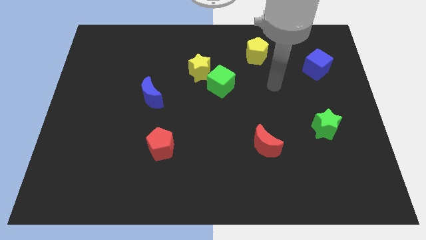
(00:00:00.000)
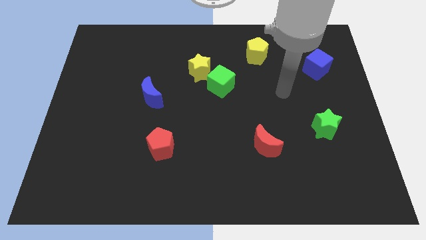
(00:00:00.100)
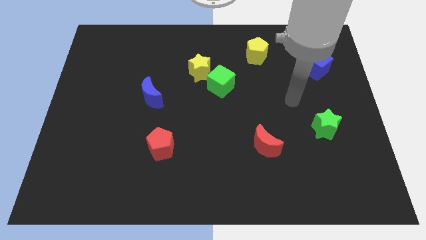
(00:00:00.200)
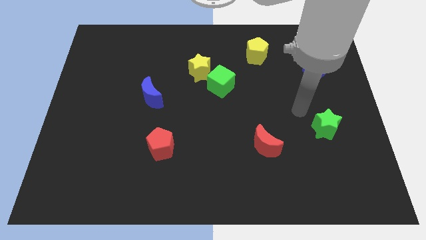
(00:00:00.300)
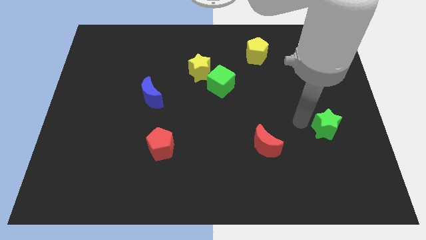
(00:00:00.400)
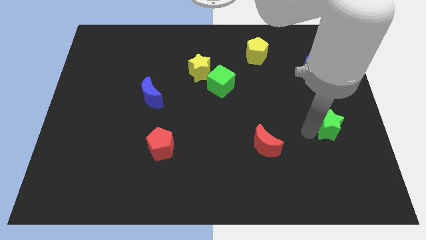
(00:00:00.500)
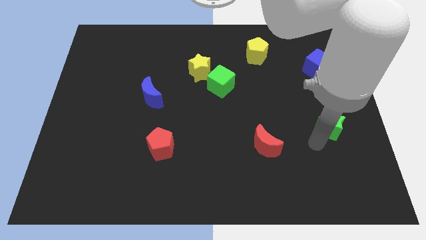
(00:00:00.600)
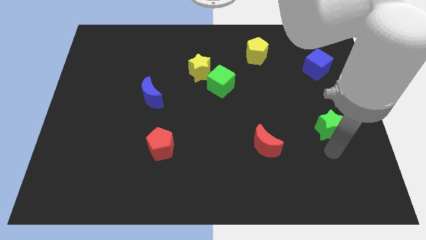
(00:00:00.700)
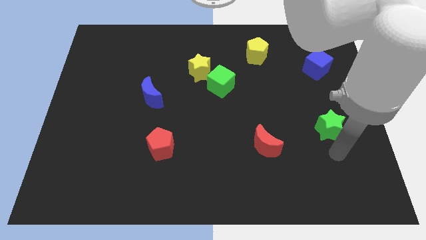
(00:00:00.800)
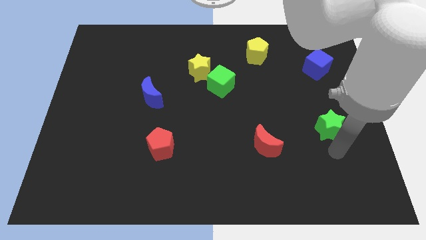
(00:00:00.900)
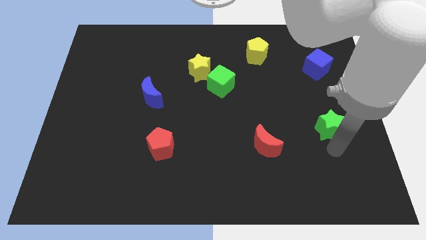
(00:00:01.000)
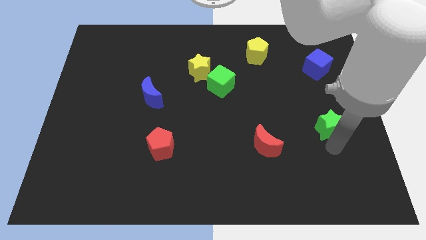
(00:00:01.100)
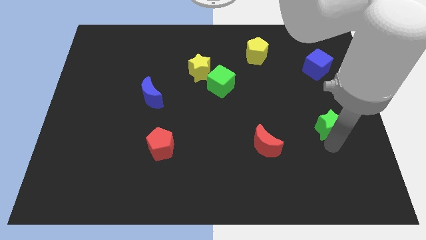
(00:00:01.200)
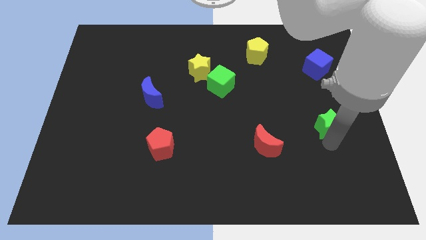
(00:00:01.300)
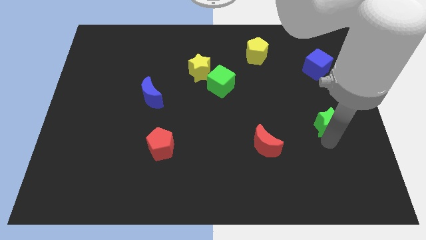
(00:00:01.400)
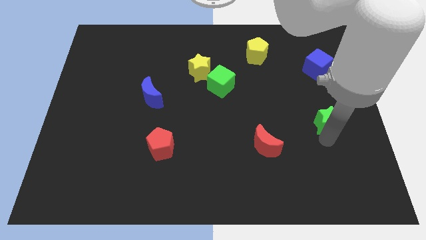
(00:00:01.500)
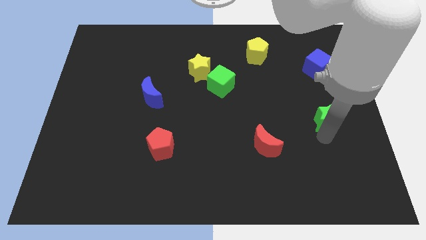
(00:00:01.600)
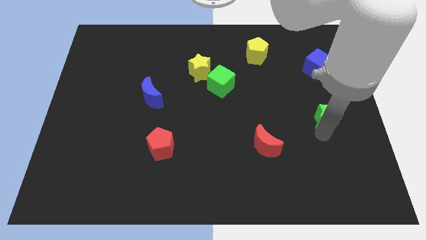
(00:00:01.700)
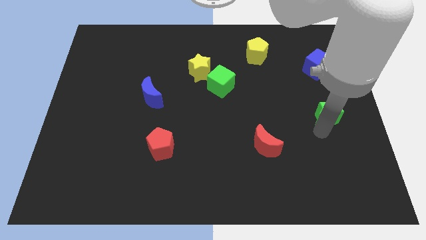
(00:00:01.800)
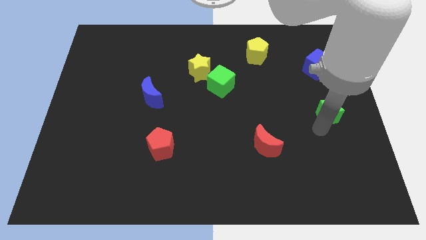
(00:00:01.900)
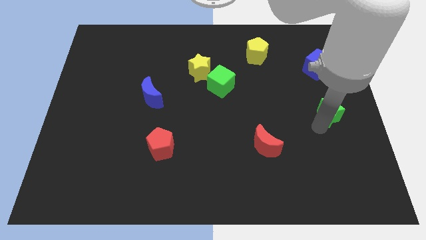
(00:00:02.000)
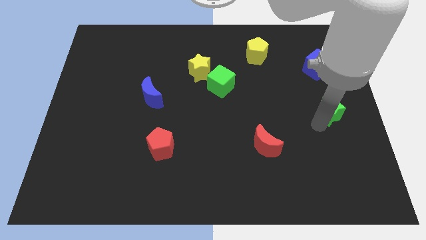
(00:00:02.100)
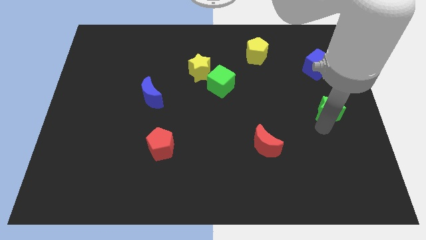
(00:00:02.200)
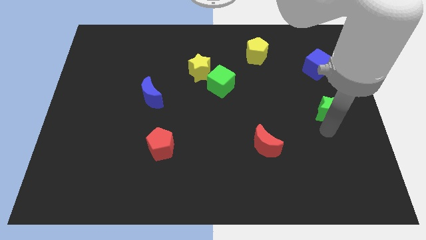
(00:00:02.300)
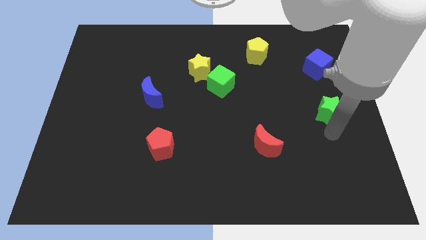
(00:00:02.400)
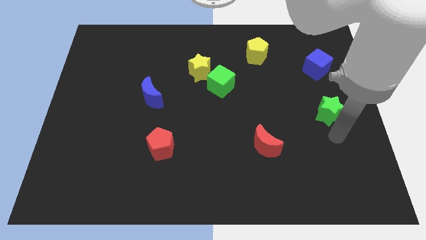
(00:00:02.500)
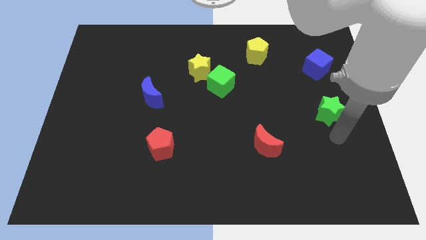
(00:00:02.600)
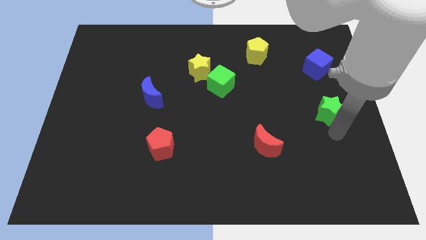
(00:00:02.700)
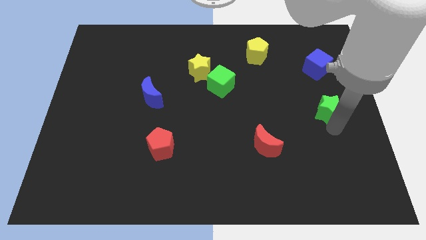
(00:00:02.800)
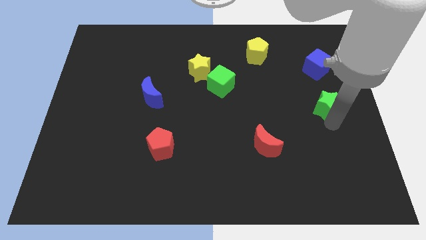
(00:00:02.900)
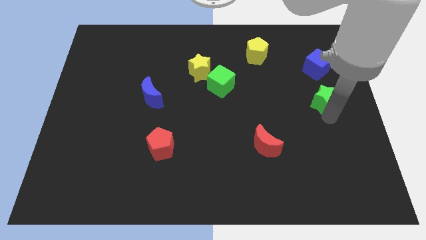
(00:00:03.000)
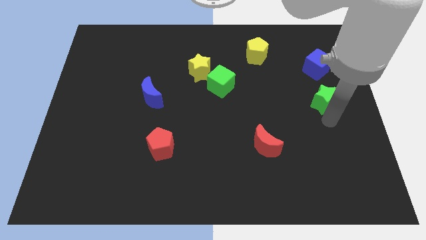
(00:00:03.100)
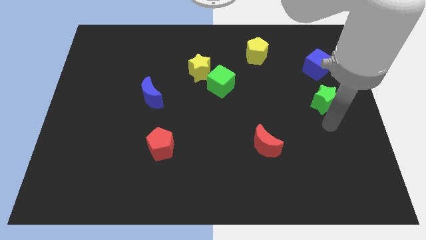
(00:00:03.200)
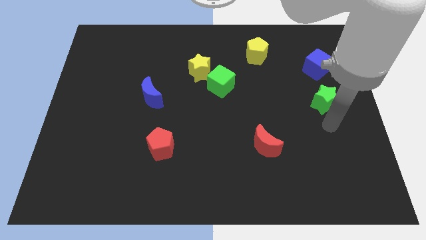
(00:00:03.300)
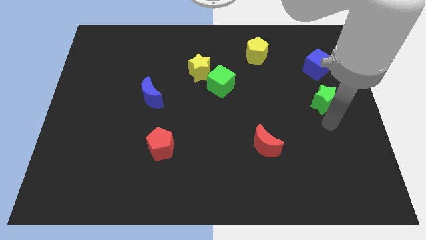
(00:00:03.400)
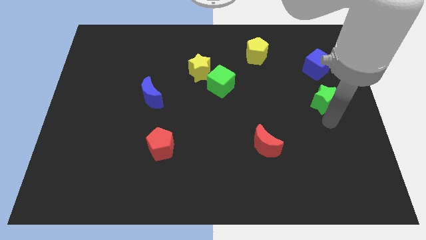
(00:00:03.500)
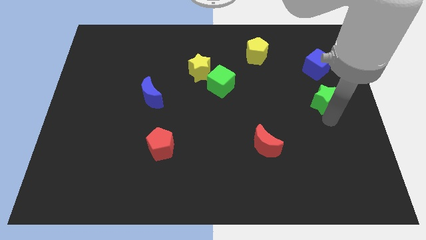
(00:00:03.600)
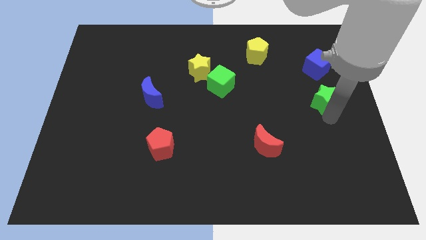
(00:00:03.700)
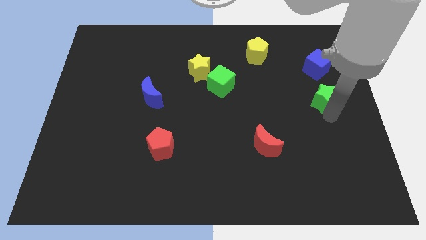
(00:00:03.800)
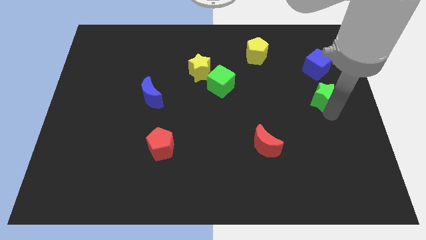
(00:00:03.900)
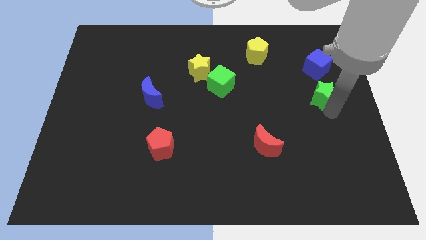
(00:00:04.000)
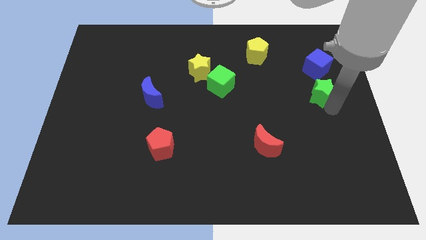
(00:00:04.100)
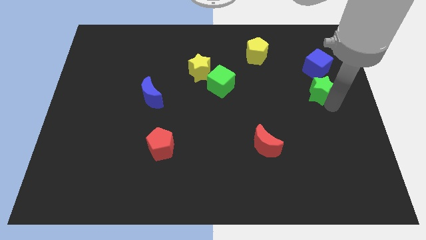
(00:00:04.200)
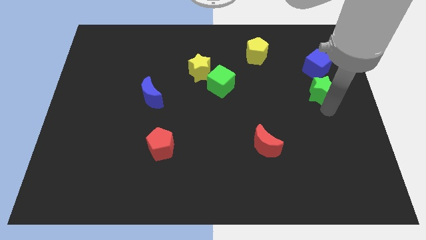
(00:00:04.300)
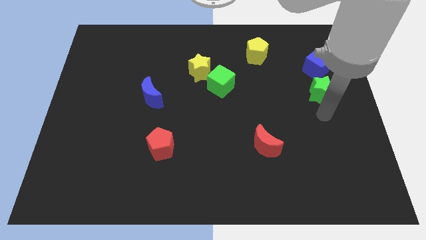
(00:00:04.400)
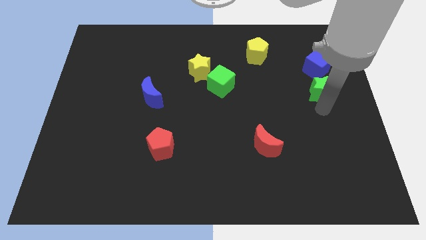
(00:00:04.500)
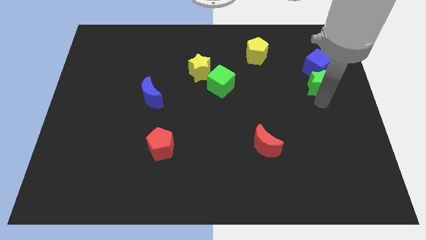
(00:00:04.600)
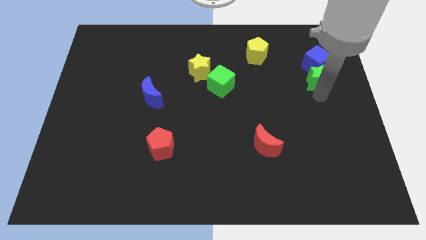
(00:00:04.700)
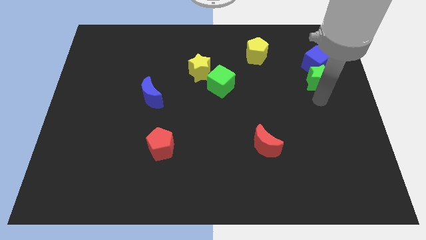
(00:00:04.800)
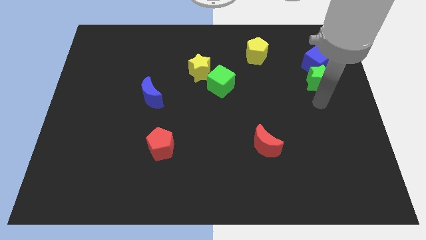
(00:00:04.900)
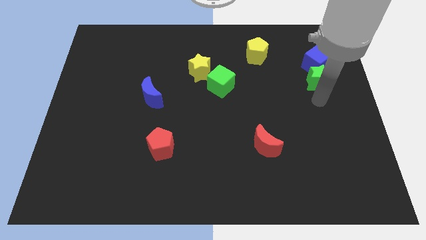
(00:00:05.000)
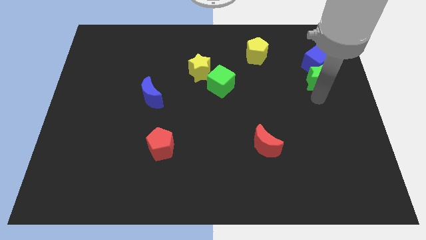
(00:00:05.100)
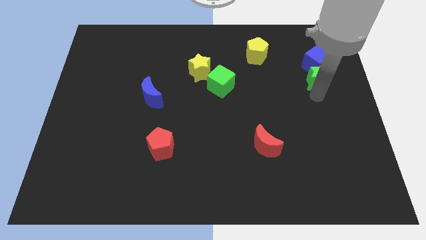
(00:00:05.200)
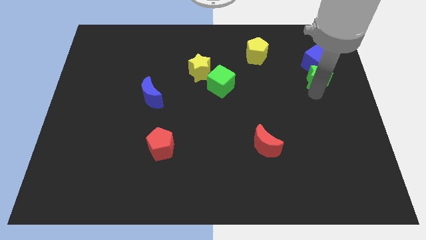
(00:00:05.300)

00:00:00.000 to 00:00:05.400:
move the green star towards the blue cube

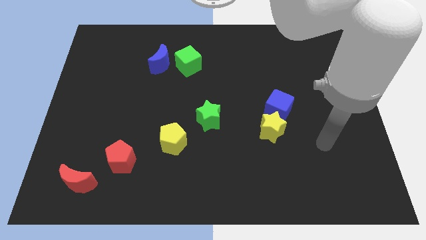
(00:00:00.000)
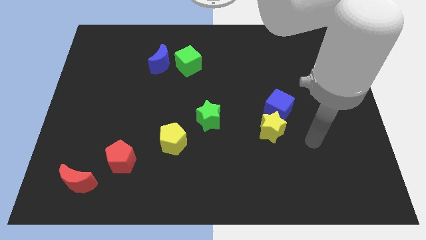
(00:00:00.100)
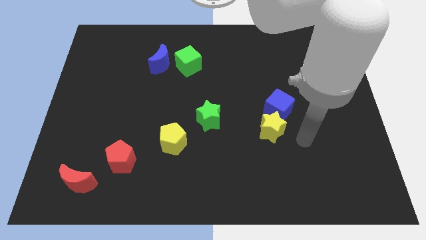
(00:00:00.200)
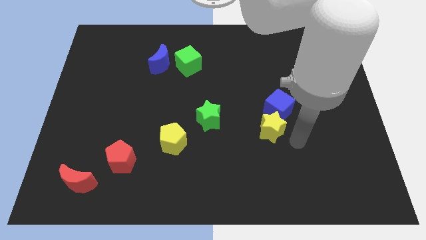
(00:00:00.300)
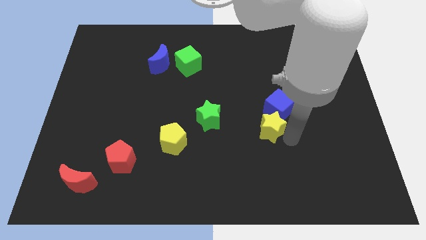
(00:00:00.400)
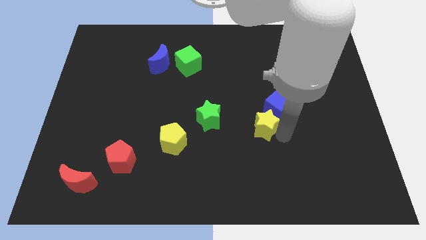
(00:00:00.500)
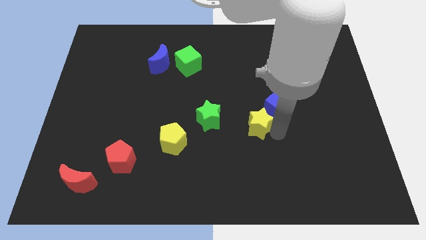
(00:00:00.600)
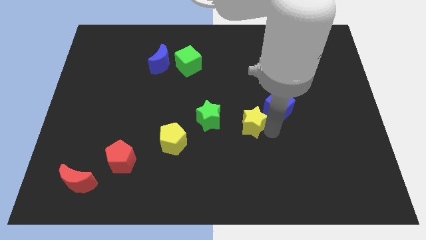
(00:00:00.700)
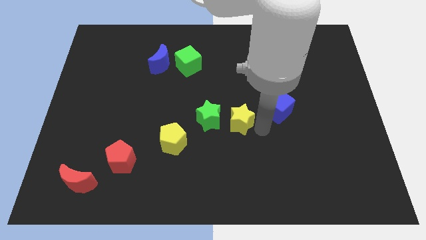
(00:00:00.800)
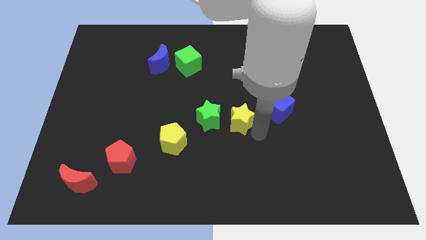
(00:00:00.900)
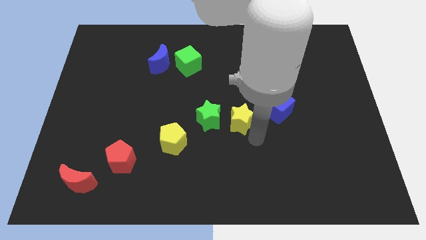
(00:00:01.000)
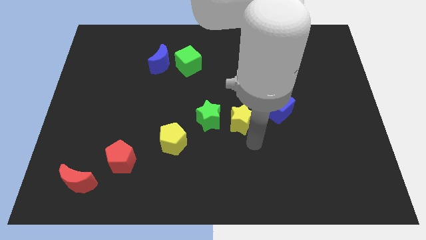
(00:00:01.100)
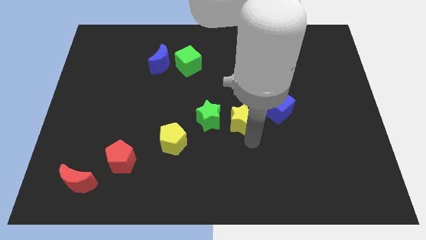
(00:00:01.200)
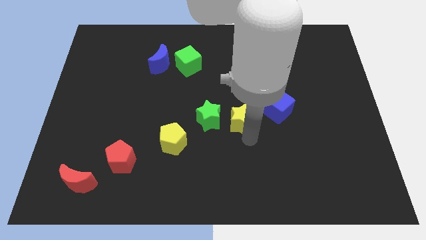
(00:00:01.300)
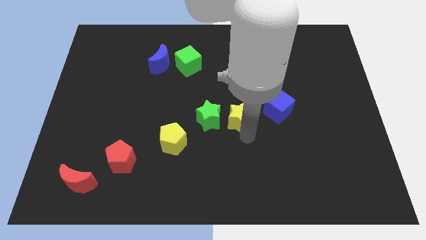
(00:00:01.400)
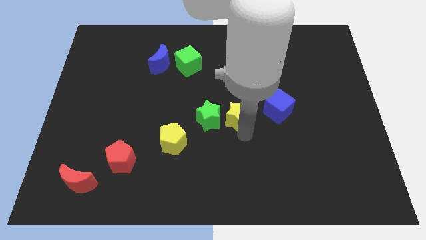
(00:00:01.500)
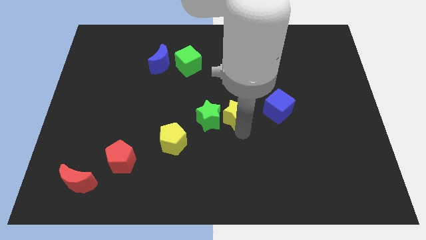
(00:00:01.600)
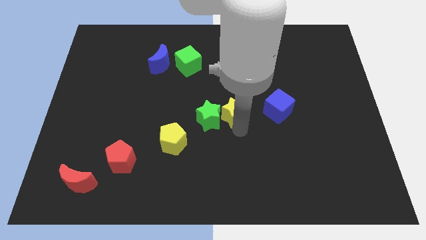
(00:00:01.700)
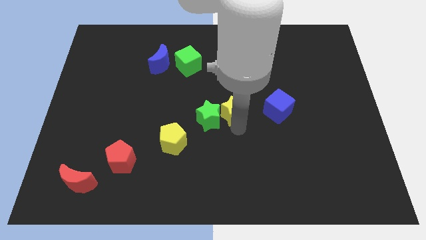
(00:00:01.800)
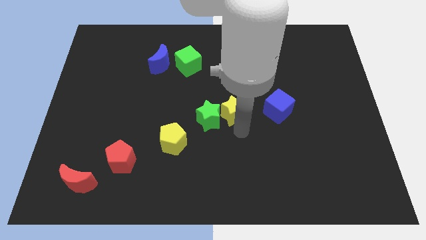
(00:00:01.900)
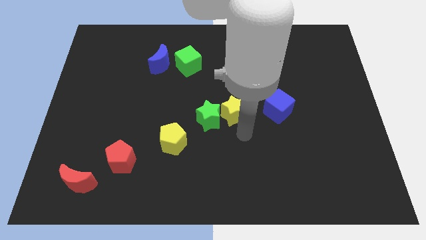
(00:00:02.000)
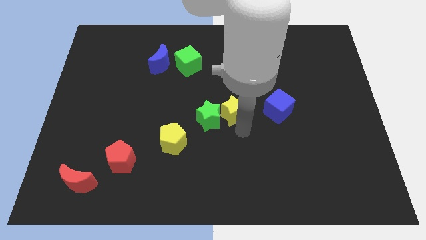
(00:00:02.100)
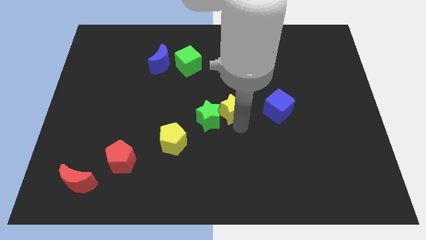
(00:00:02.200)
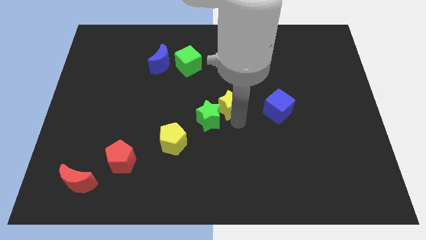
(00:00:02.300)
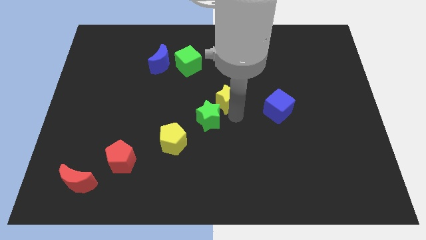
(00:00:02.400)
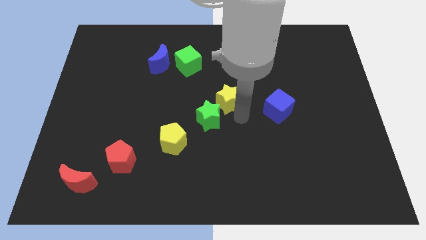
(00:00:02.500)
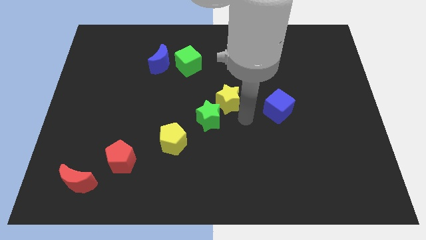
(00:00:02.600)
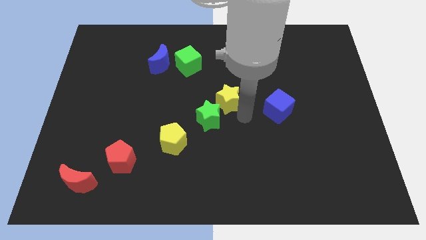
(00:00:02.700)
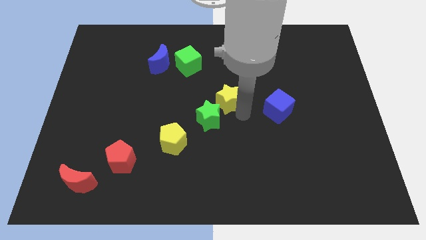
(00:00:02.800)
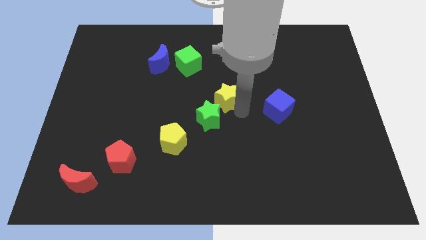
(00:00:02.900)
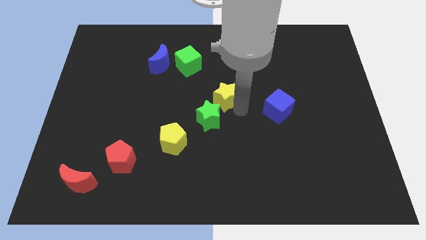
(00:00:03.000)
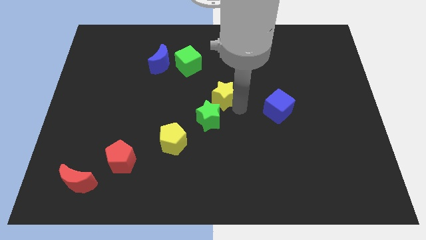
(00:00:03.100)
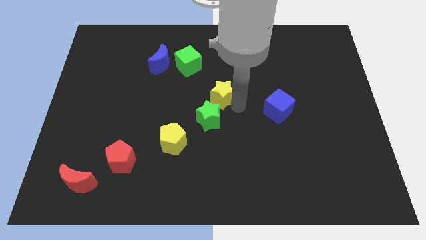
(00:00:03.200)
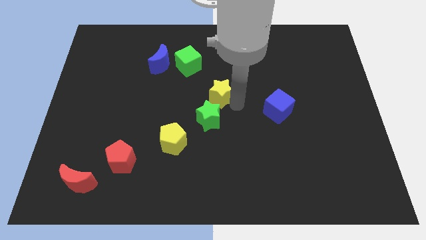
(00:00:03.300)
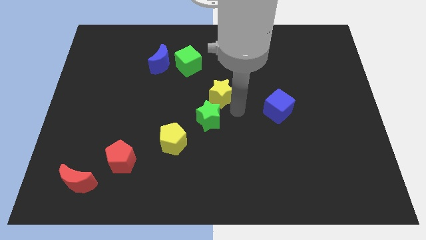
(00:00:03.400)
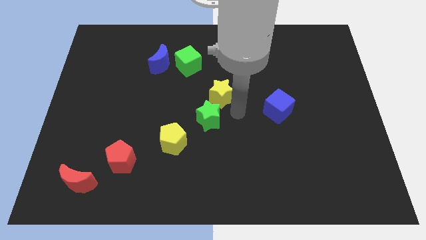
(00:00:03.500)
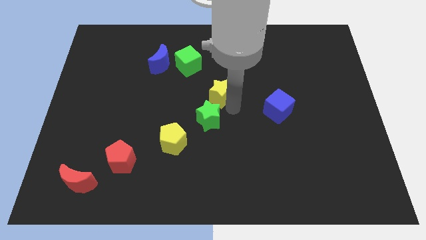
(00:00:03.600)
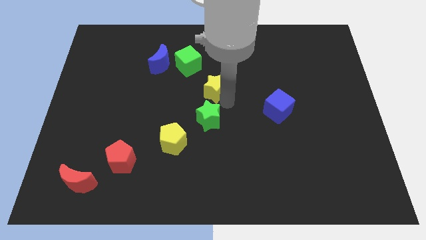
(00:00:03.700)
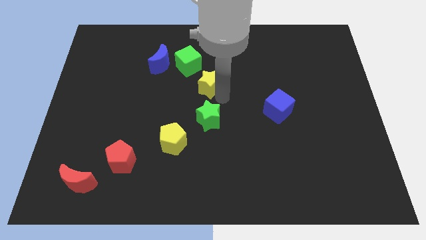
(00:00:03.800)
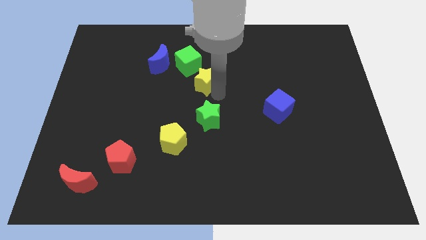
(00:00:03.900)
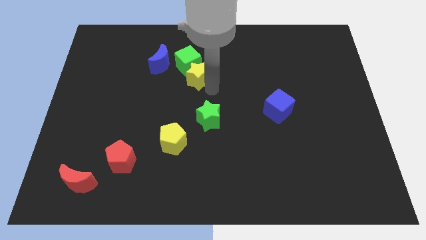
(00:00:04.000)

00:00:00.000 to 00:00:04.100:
slide the yellow star to the green cube
